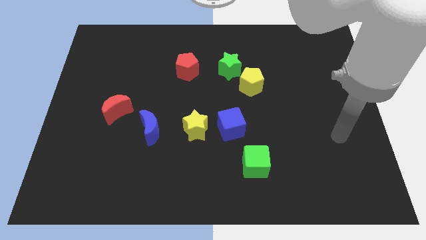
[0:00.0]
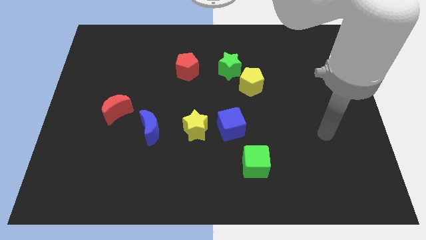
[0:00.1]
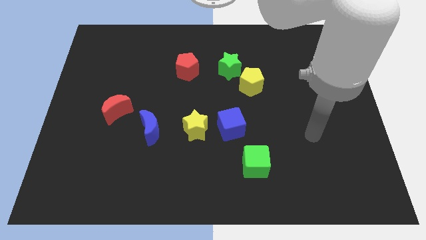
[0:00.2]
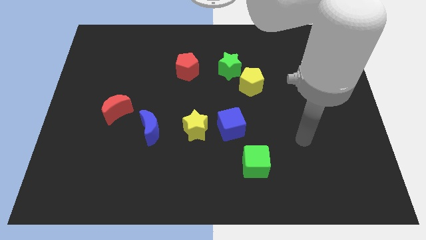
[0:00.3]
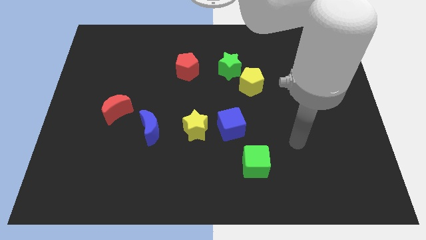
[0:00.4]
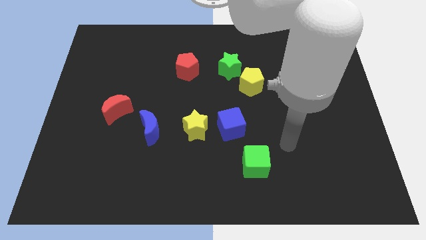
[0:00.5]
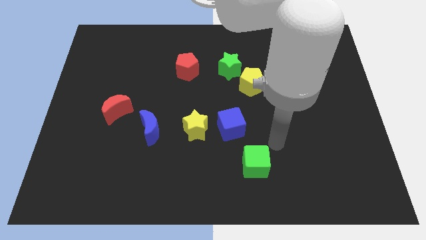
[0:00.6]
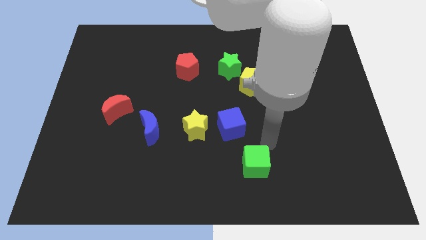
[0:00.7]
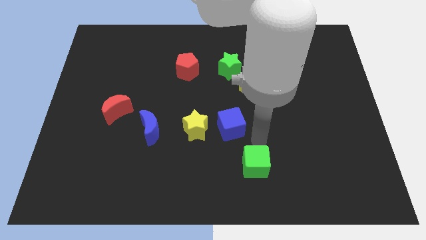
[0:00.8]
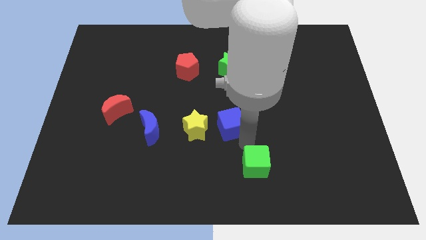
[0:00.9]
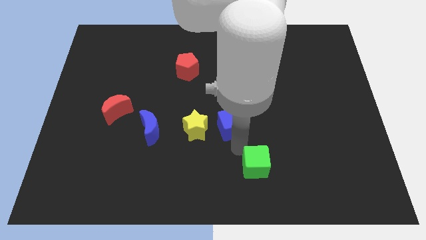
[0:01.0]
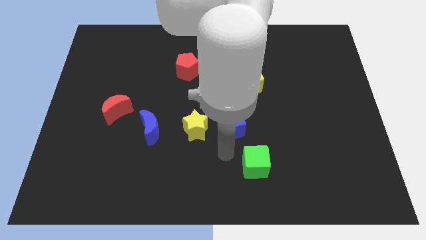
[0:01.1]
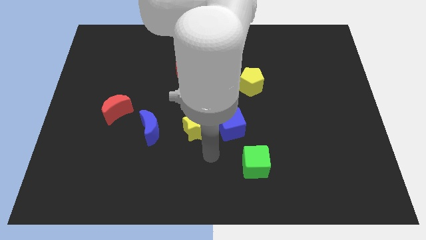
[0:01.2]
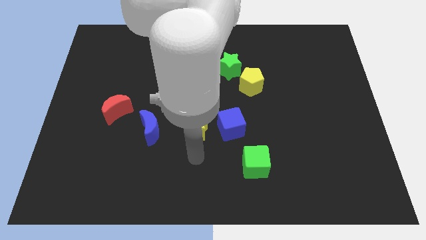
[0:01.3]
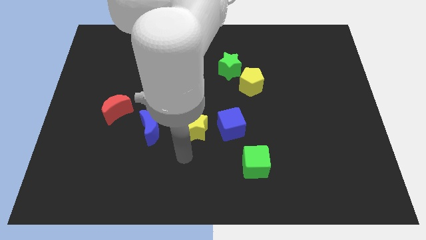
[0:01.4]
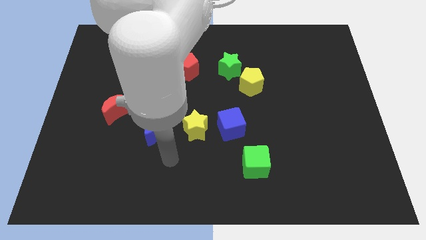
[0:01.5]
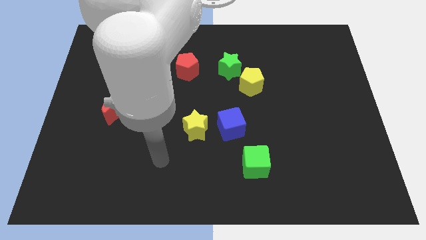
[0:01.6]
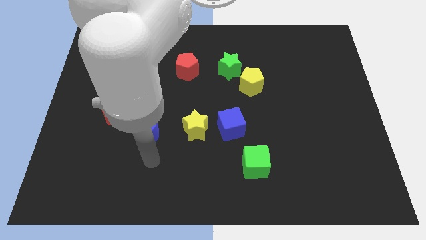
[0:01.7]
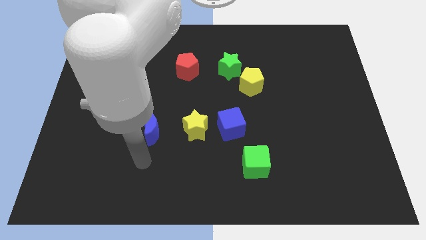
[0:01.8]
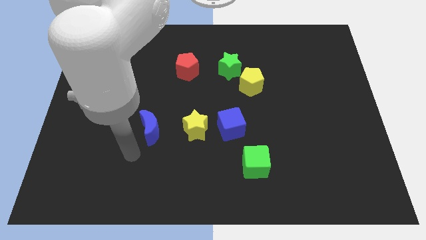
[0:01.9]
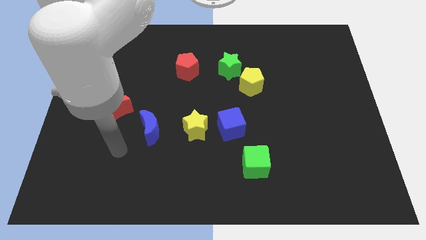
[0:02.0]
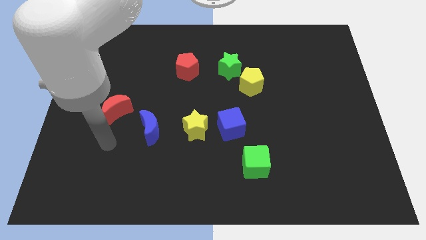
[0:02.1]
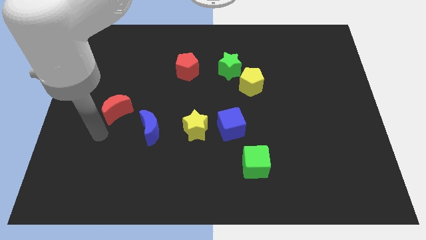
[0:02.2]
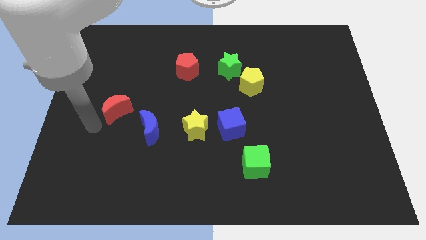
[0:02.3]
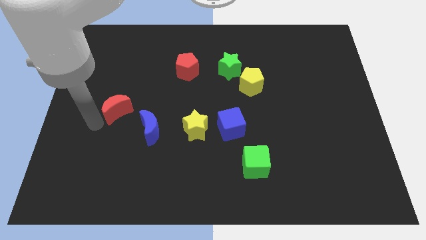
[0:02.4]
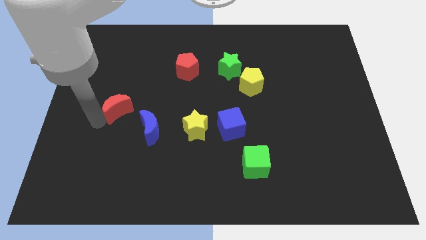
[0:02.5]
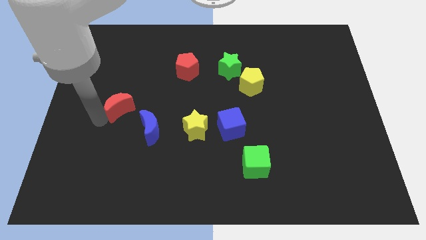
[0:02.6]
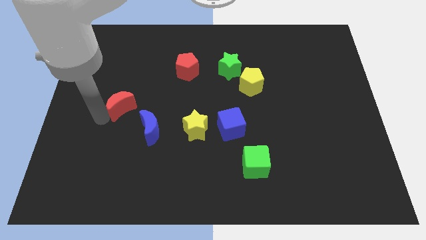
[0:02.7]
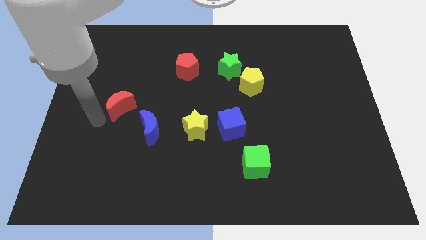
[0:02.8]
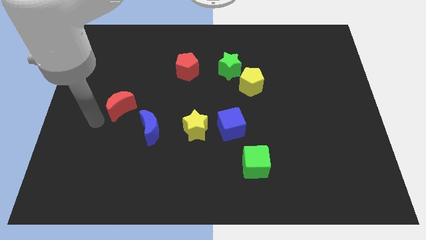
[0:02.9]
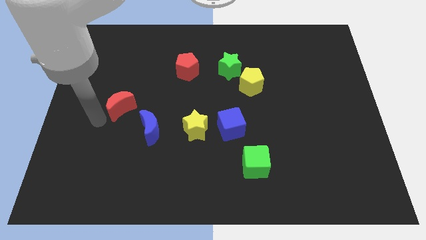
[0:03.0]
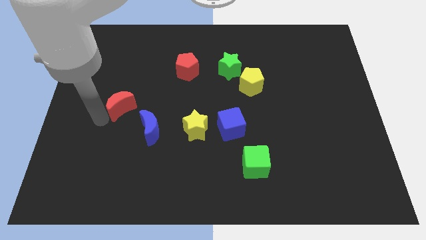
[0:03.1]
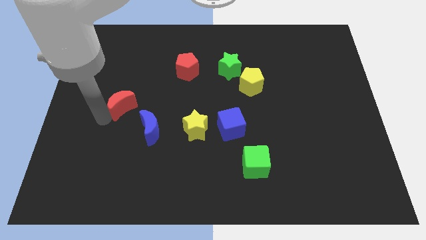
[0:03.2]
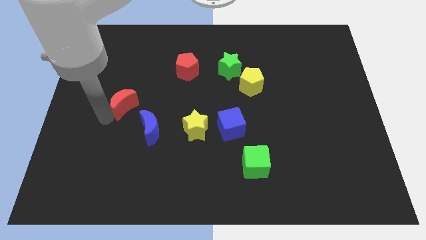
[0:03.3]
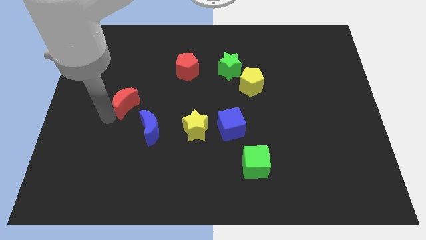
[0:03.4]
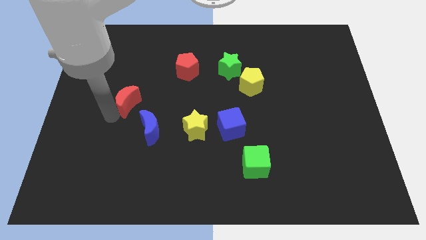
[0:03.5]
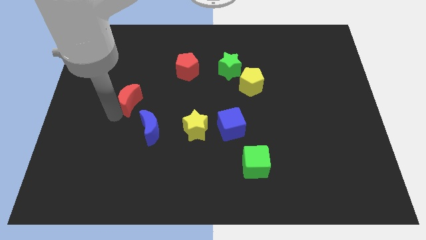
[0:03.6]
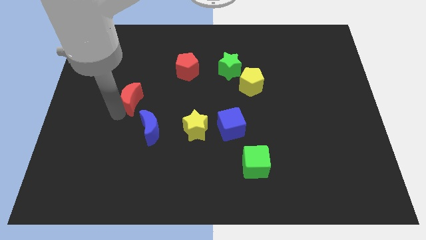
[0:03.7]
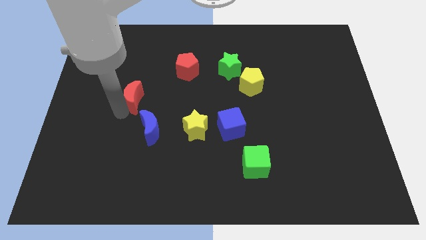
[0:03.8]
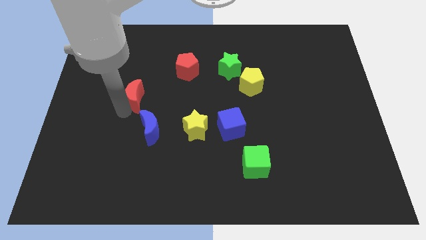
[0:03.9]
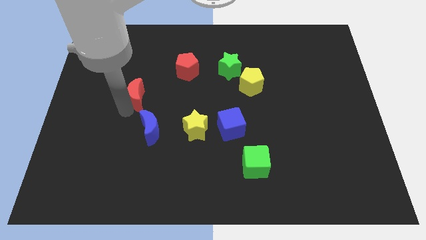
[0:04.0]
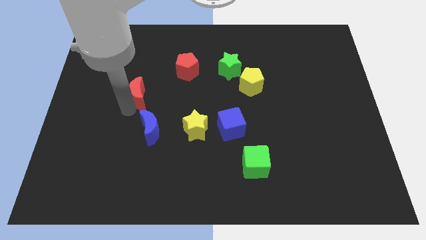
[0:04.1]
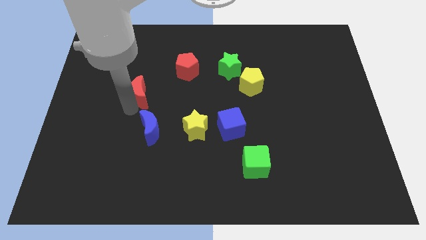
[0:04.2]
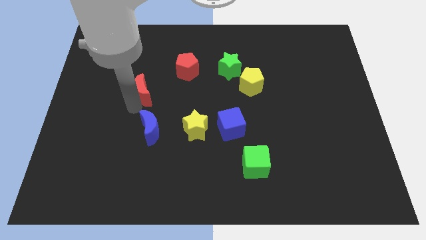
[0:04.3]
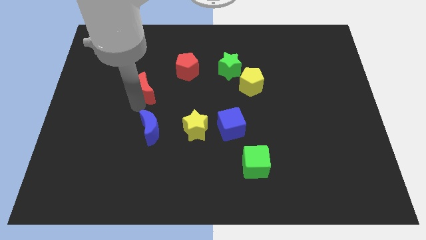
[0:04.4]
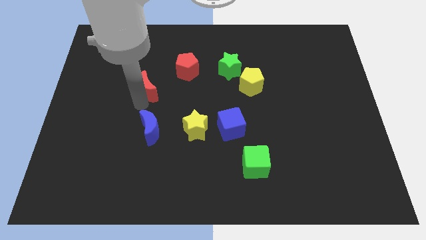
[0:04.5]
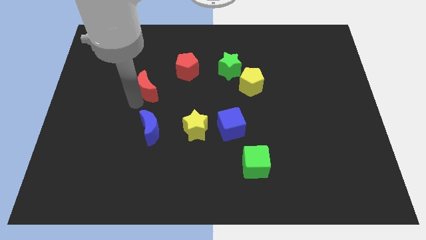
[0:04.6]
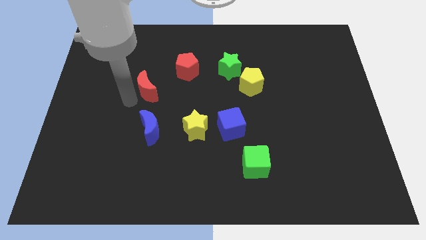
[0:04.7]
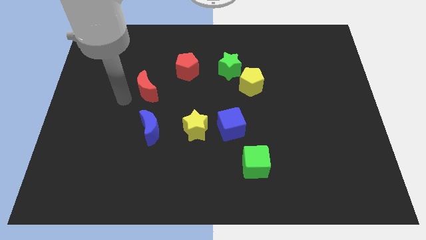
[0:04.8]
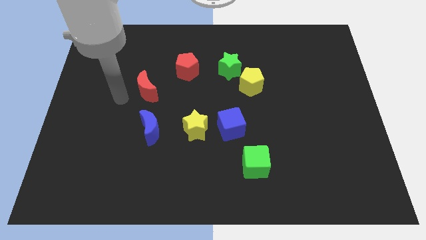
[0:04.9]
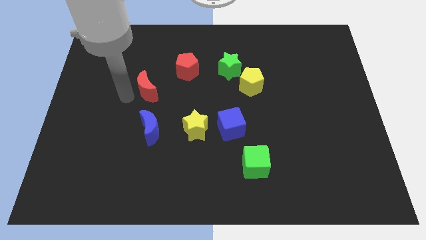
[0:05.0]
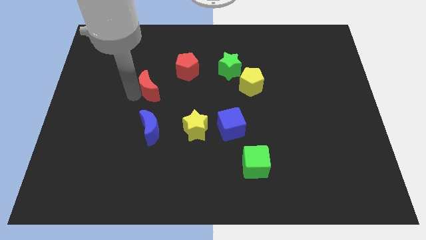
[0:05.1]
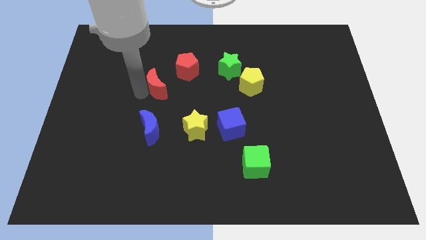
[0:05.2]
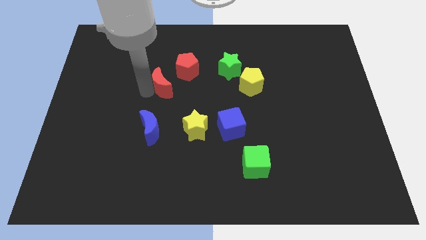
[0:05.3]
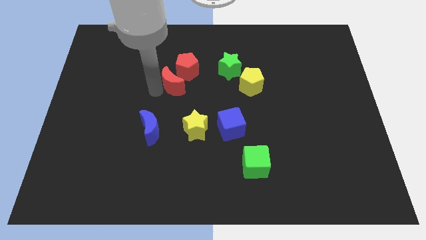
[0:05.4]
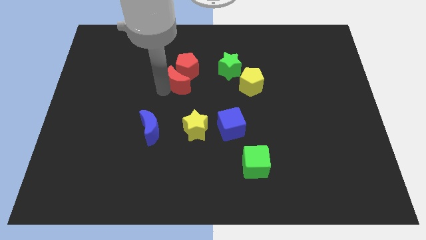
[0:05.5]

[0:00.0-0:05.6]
slide the red moon next to the red pentagon

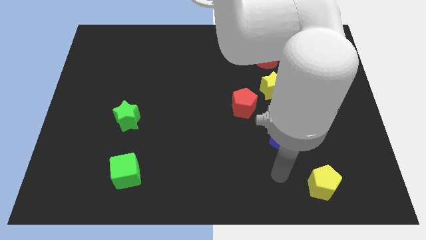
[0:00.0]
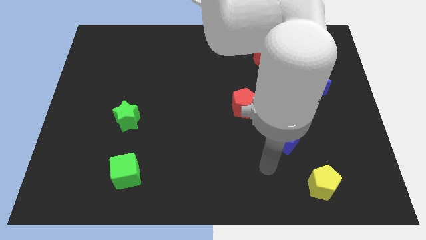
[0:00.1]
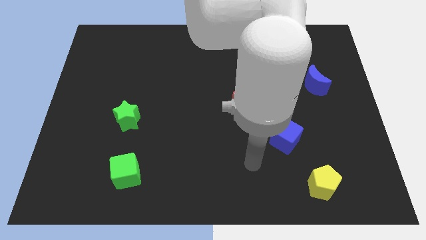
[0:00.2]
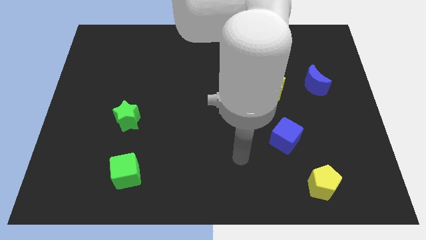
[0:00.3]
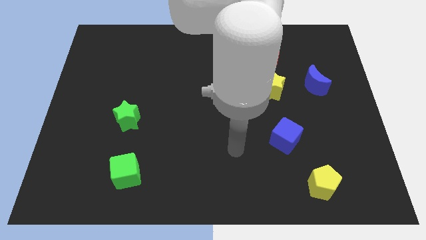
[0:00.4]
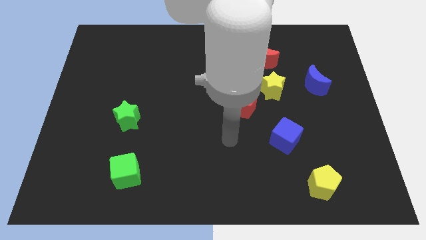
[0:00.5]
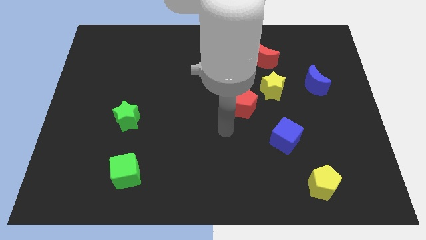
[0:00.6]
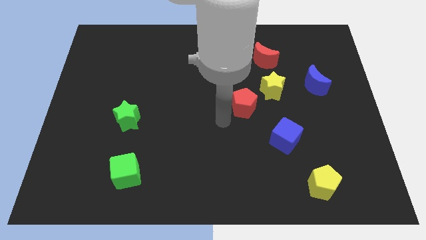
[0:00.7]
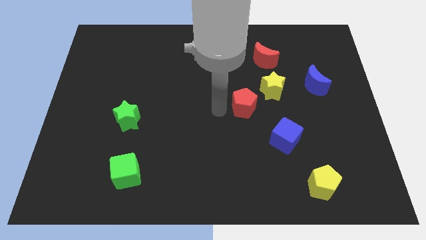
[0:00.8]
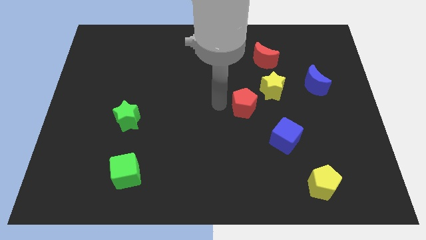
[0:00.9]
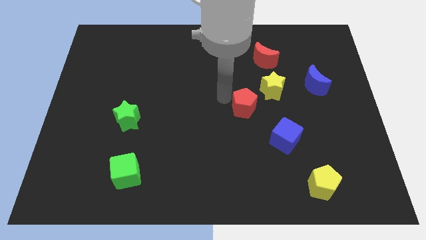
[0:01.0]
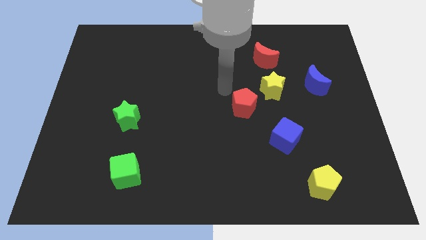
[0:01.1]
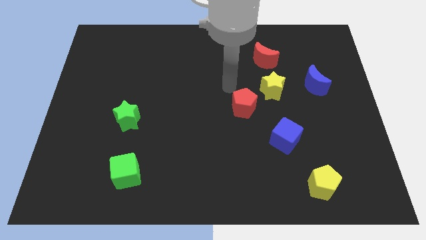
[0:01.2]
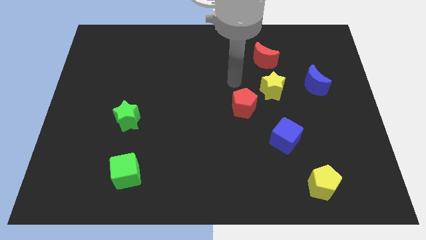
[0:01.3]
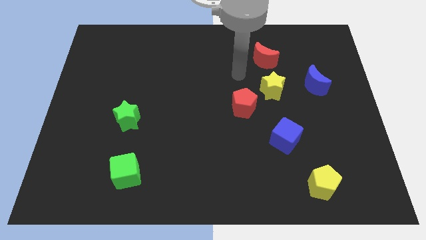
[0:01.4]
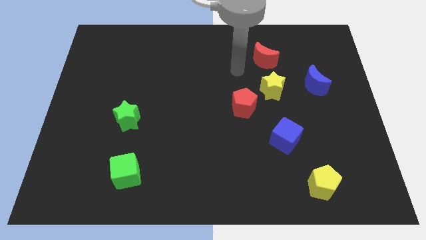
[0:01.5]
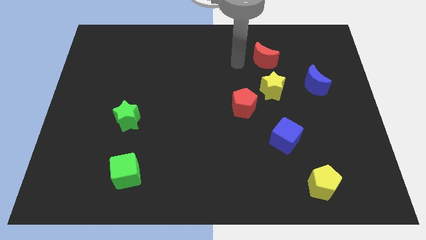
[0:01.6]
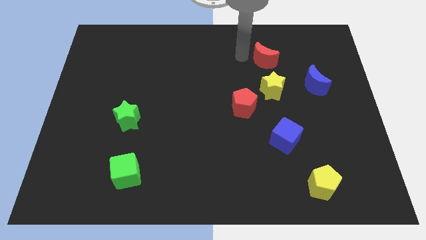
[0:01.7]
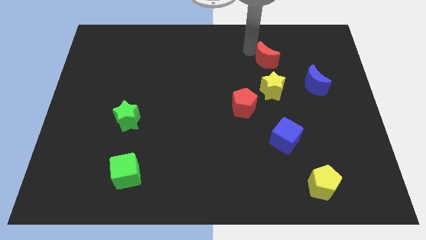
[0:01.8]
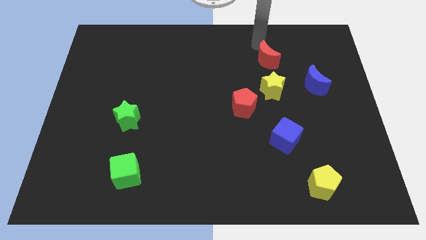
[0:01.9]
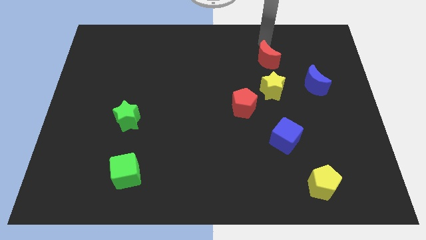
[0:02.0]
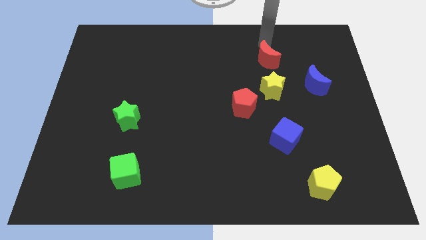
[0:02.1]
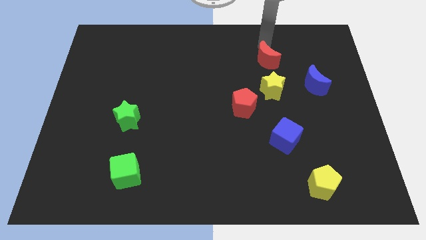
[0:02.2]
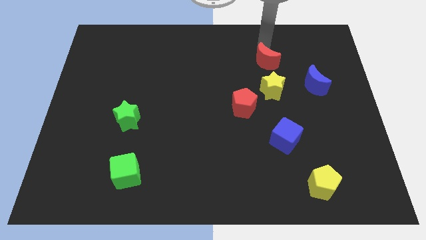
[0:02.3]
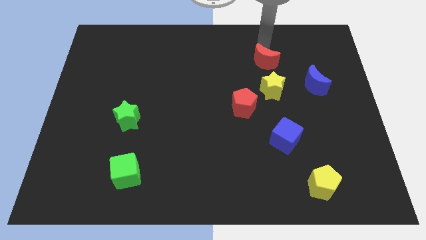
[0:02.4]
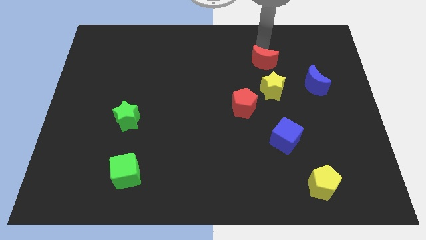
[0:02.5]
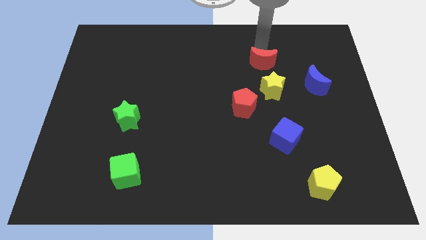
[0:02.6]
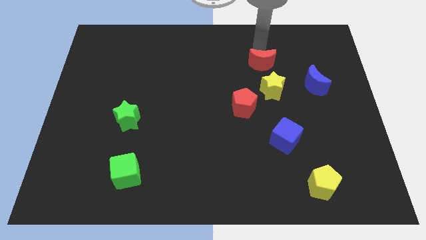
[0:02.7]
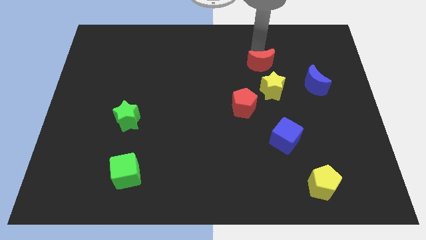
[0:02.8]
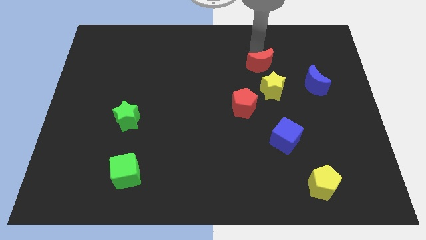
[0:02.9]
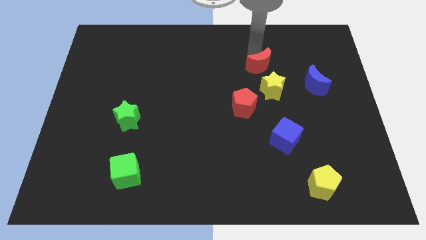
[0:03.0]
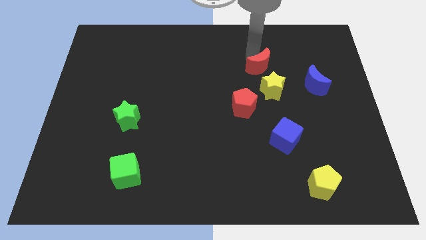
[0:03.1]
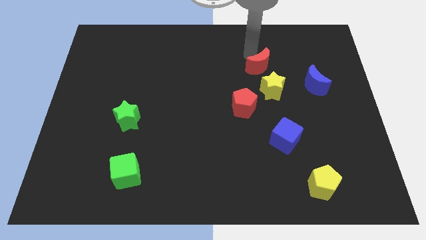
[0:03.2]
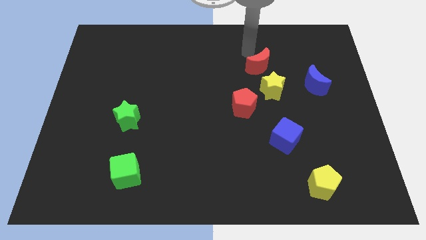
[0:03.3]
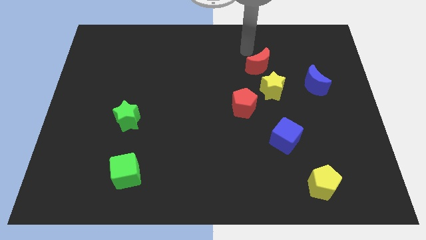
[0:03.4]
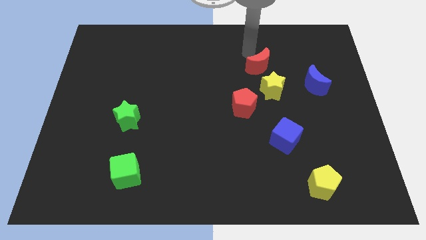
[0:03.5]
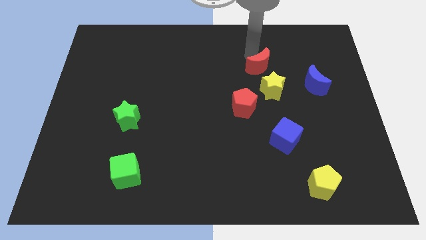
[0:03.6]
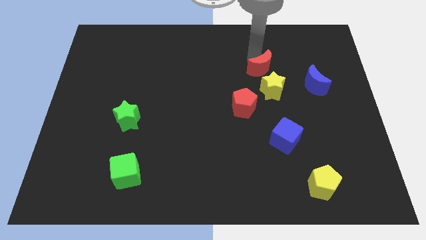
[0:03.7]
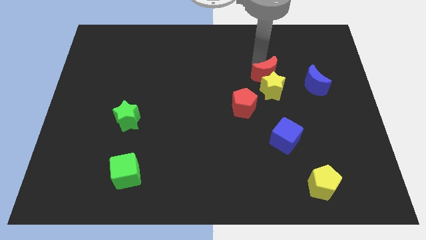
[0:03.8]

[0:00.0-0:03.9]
move the red moon to the yellow star
